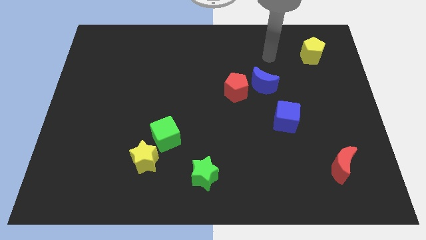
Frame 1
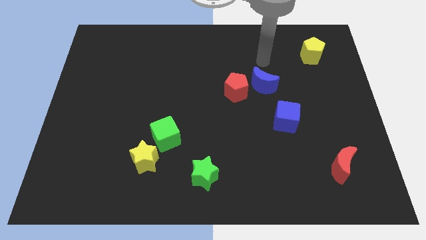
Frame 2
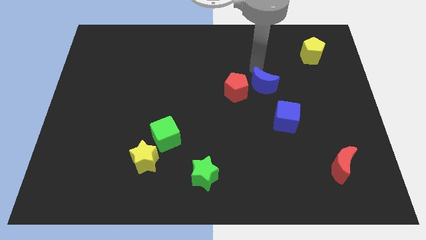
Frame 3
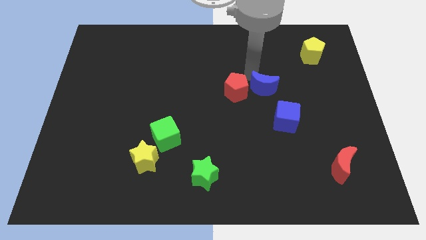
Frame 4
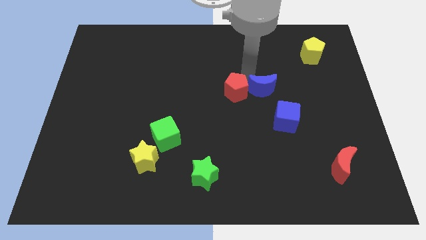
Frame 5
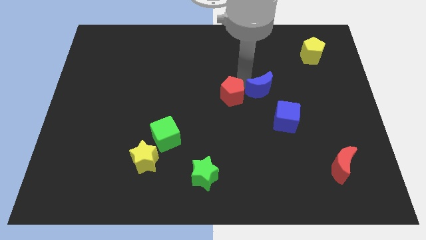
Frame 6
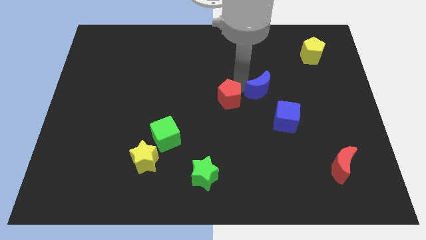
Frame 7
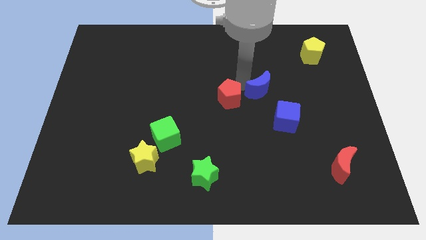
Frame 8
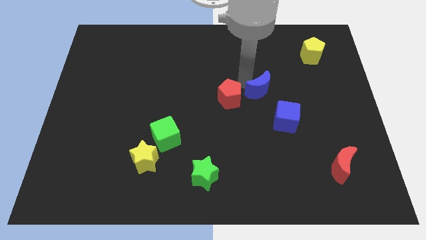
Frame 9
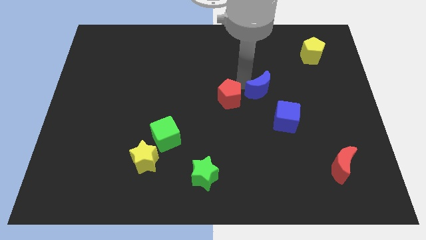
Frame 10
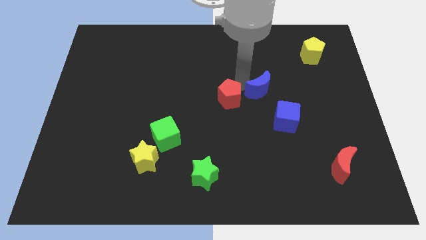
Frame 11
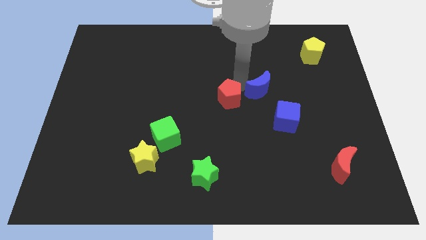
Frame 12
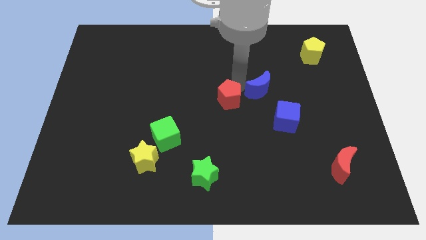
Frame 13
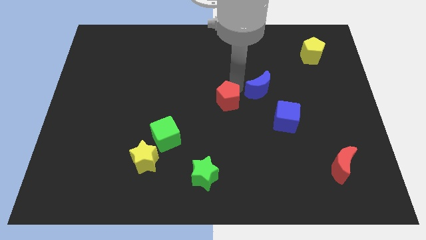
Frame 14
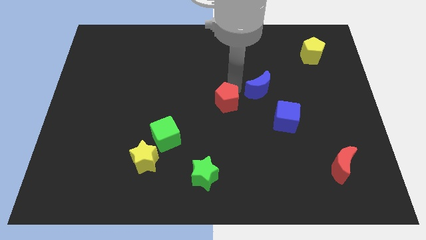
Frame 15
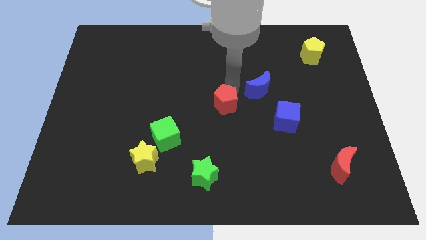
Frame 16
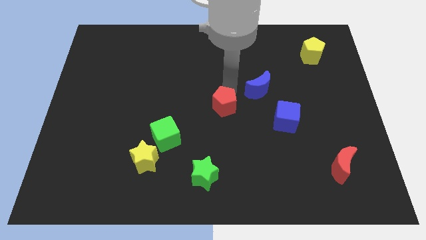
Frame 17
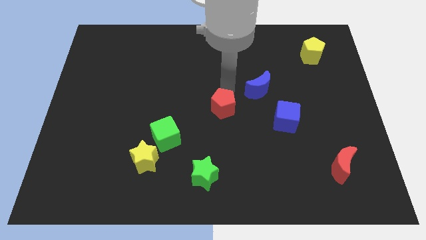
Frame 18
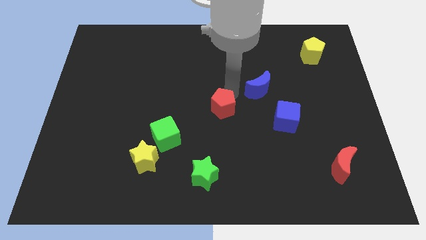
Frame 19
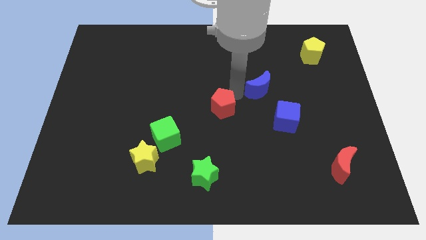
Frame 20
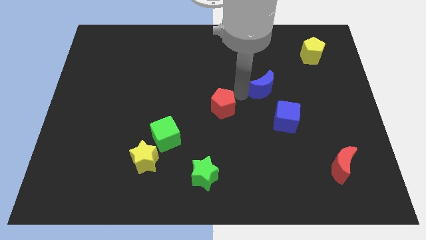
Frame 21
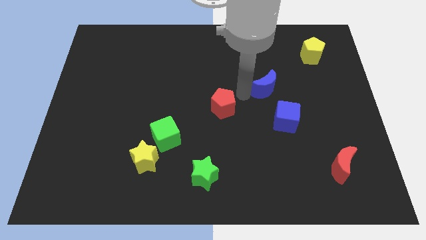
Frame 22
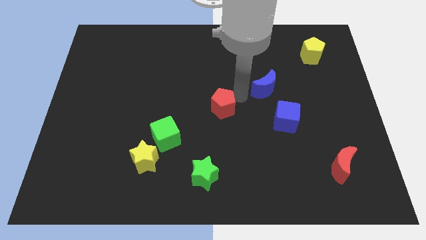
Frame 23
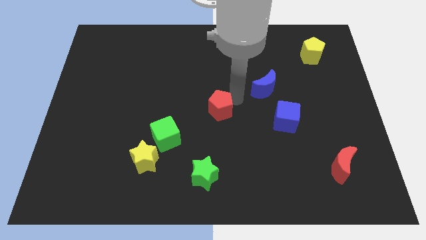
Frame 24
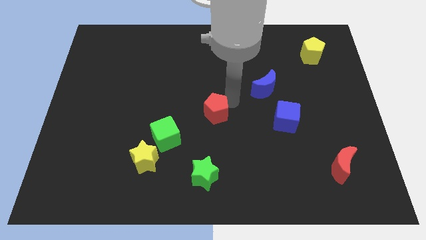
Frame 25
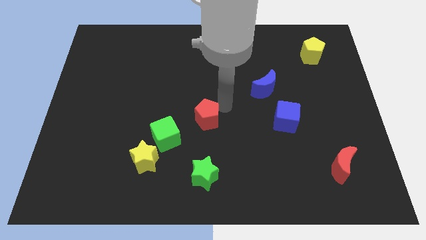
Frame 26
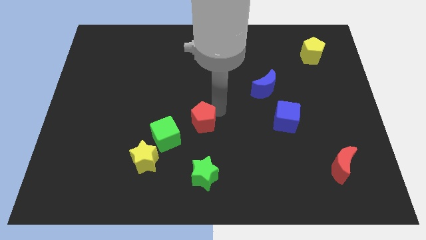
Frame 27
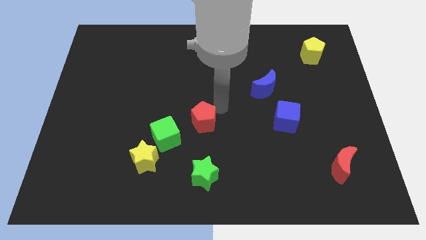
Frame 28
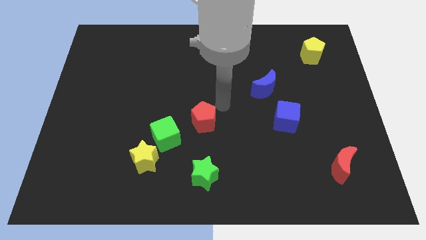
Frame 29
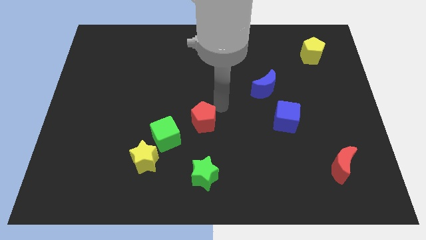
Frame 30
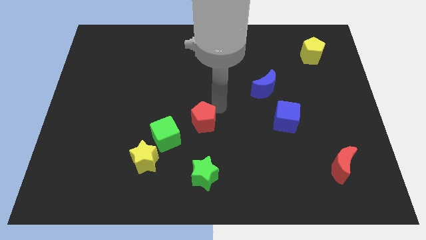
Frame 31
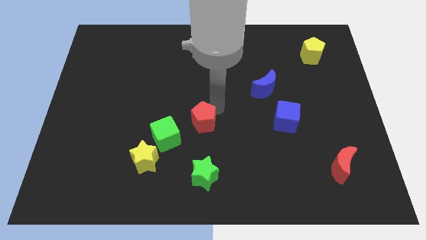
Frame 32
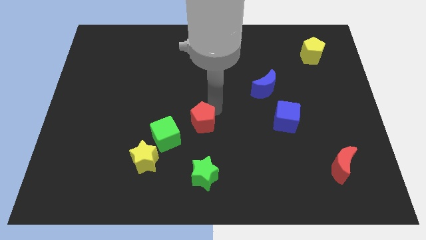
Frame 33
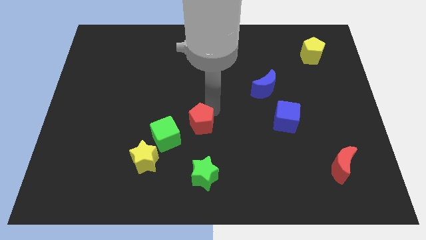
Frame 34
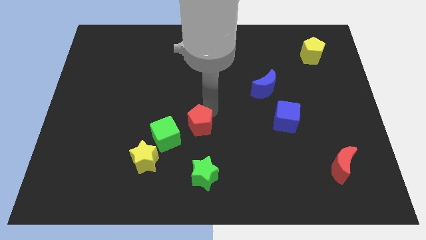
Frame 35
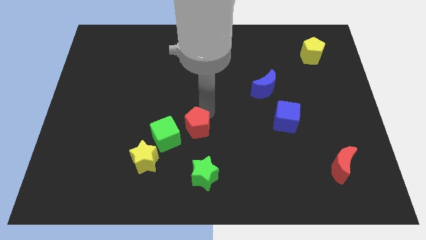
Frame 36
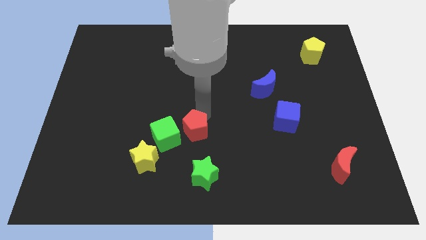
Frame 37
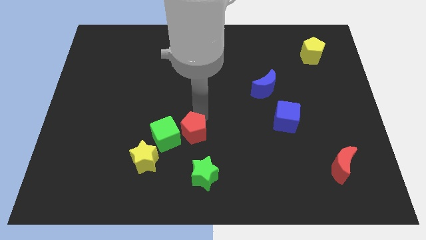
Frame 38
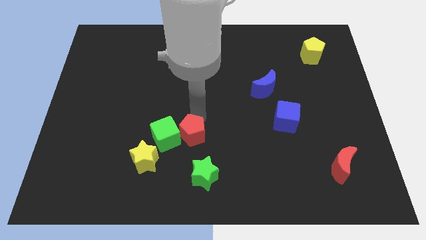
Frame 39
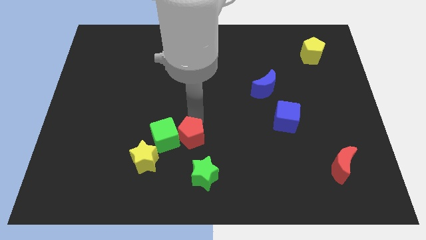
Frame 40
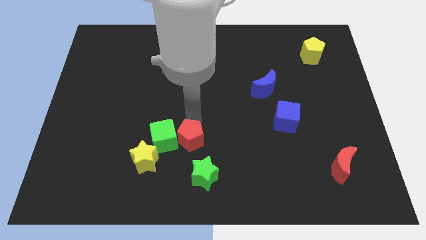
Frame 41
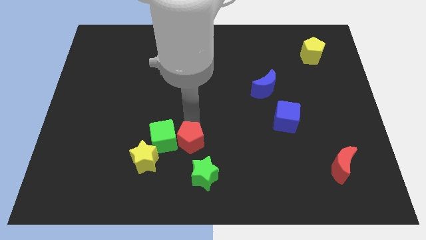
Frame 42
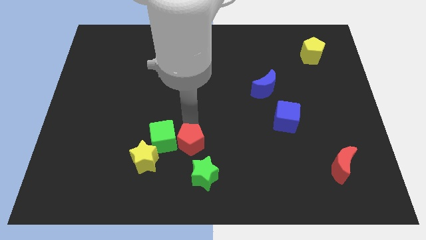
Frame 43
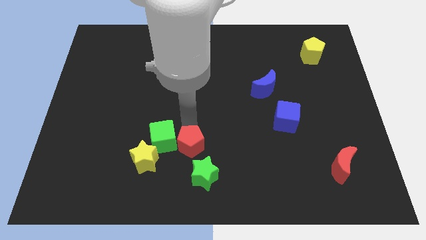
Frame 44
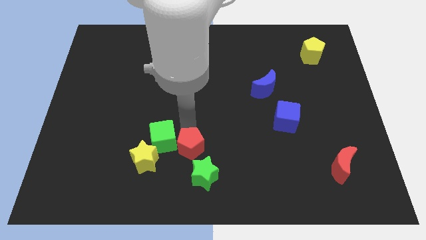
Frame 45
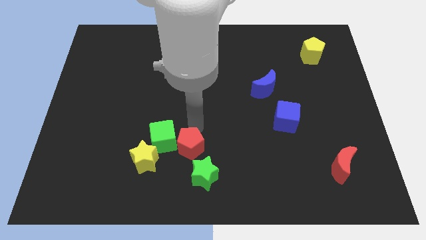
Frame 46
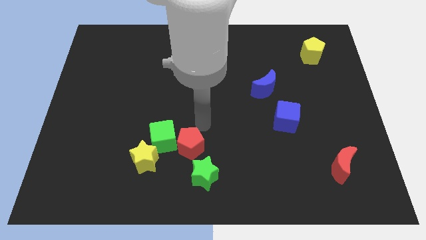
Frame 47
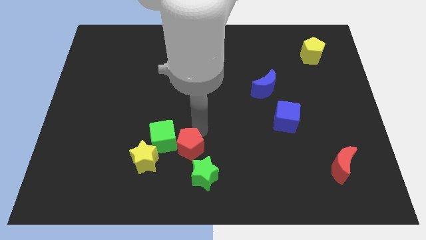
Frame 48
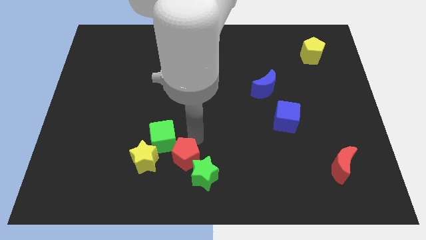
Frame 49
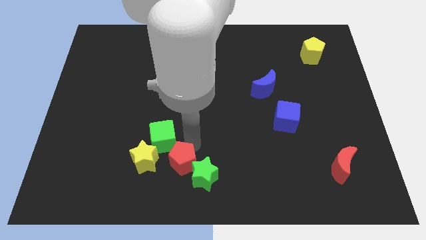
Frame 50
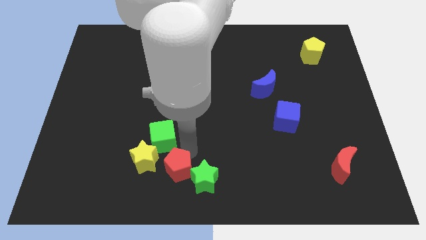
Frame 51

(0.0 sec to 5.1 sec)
push the red pentagon to the bottom right of the yellow star
